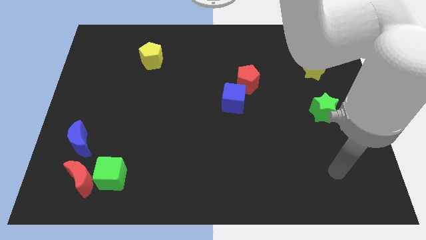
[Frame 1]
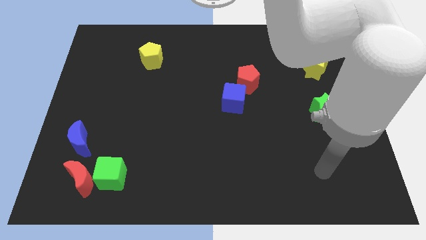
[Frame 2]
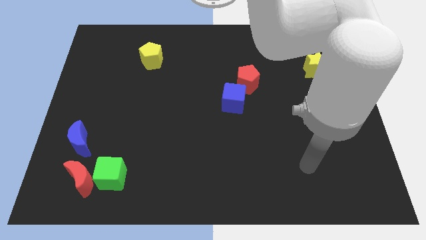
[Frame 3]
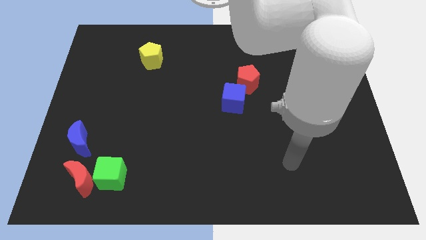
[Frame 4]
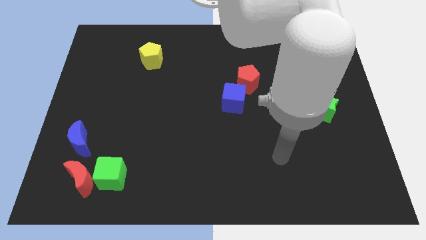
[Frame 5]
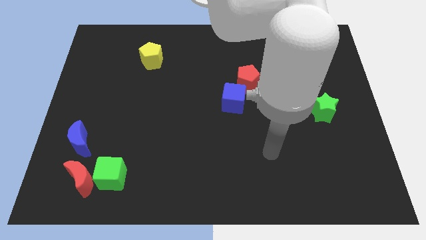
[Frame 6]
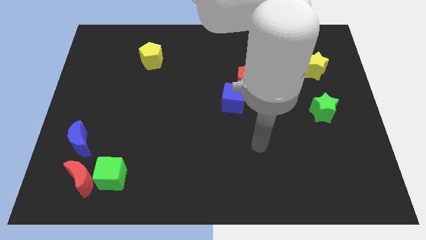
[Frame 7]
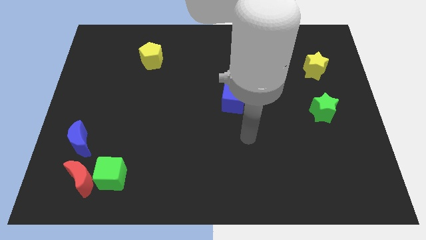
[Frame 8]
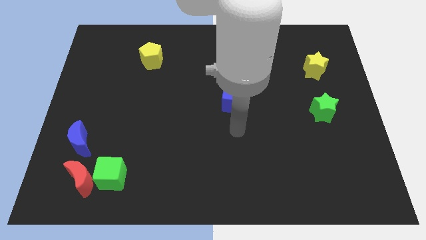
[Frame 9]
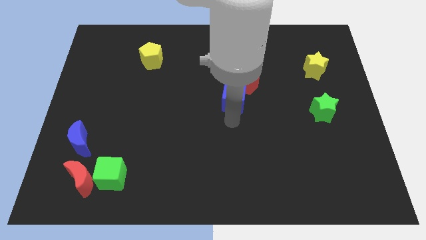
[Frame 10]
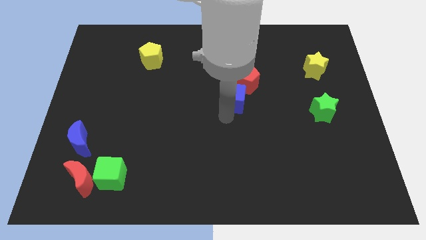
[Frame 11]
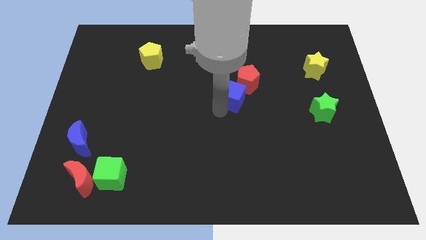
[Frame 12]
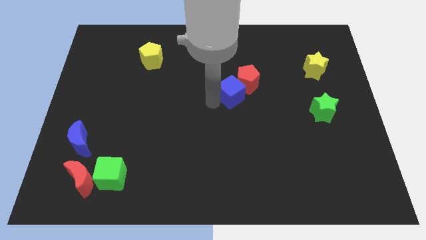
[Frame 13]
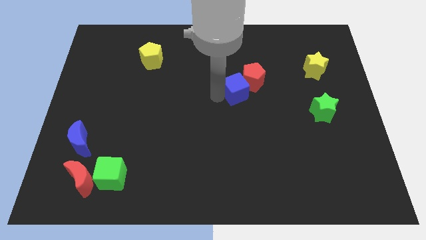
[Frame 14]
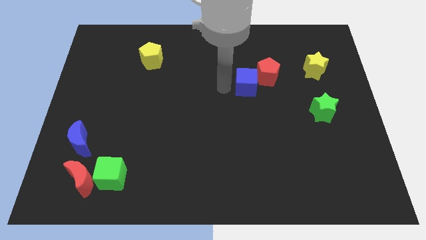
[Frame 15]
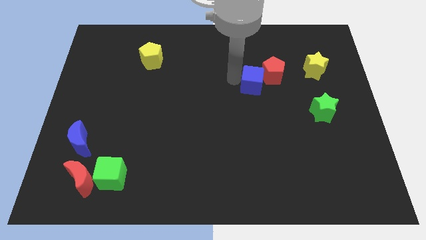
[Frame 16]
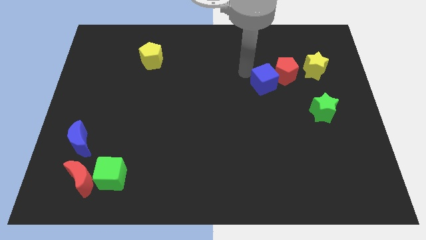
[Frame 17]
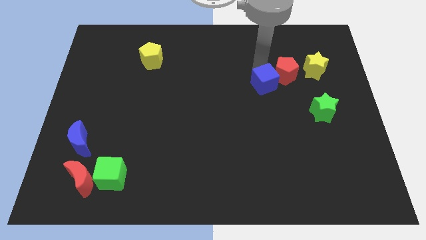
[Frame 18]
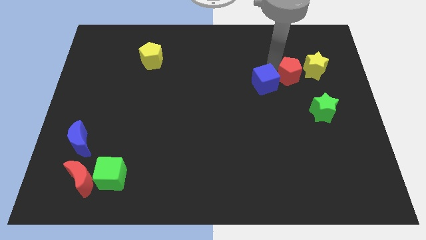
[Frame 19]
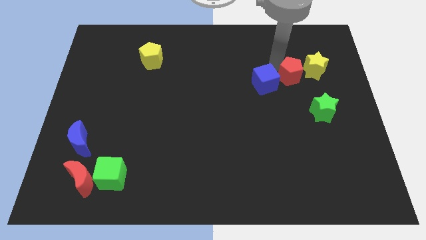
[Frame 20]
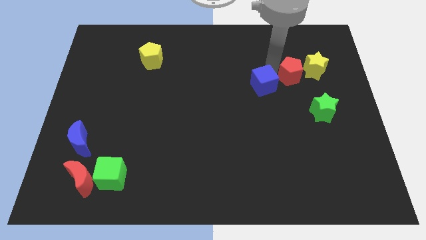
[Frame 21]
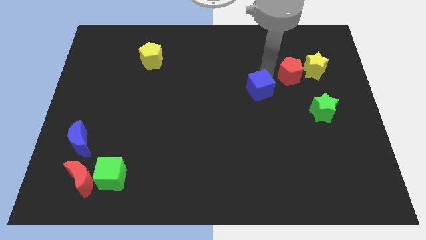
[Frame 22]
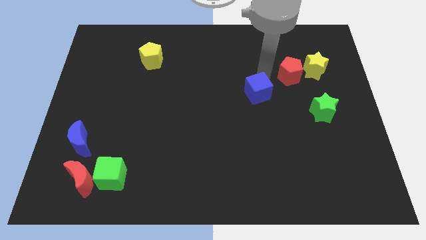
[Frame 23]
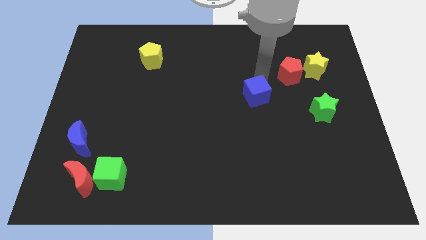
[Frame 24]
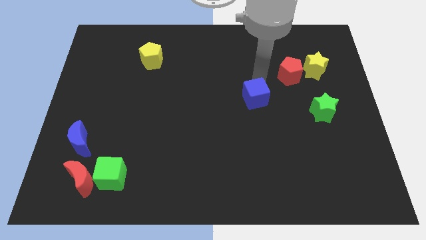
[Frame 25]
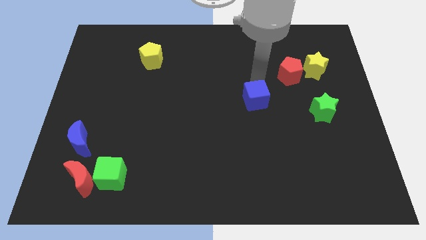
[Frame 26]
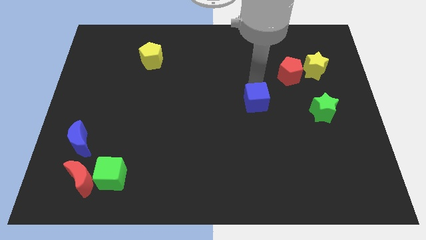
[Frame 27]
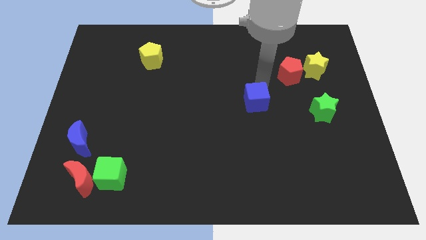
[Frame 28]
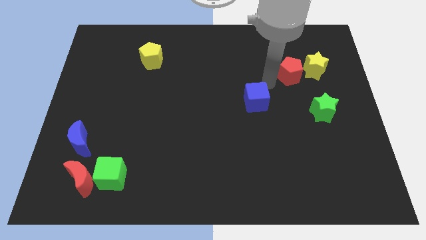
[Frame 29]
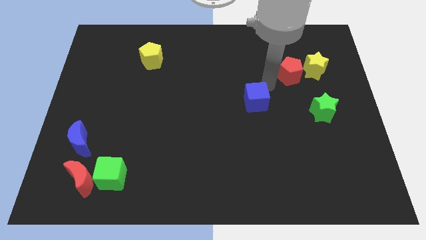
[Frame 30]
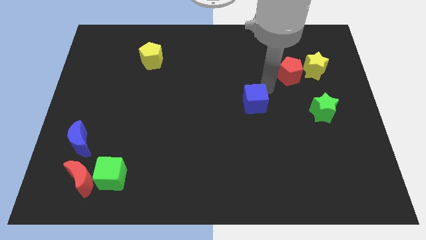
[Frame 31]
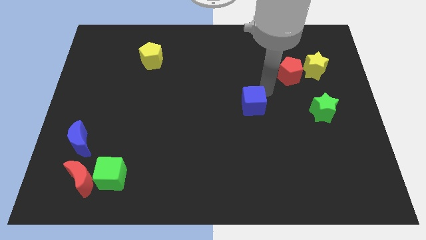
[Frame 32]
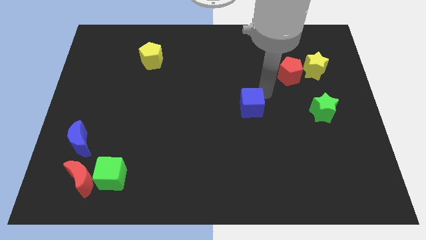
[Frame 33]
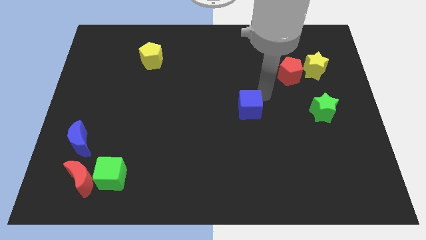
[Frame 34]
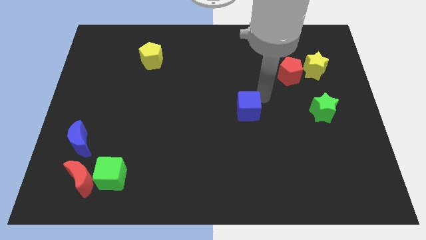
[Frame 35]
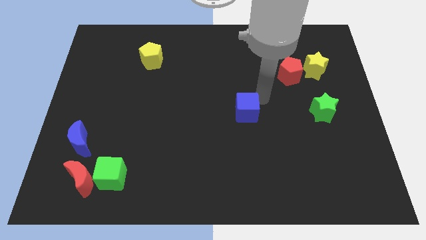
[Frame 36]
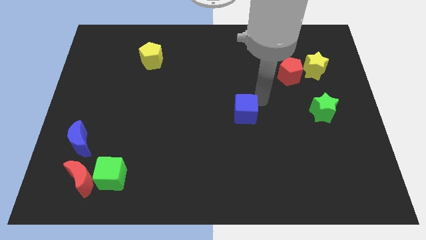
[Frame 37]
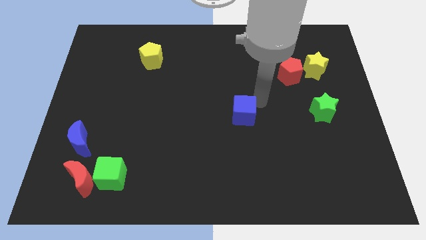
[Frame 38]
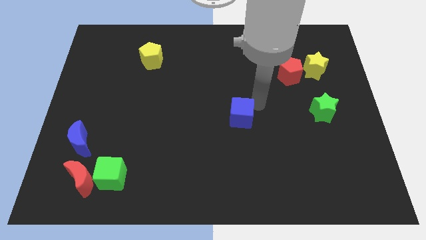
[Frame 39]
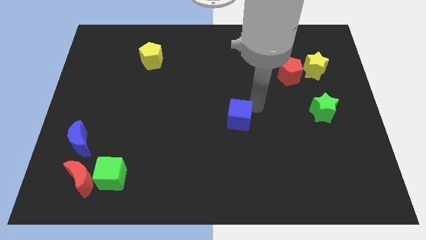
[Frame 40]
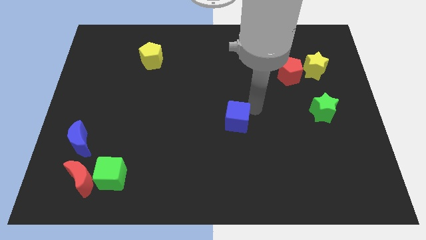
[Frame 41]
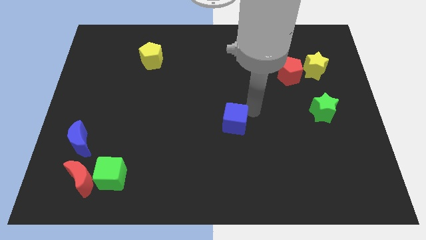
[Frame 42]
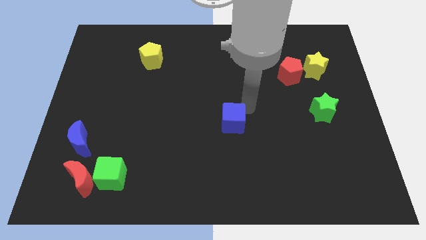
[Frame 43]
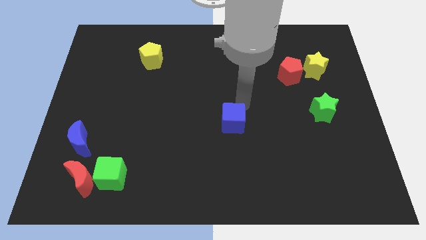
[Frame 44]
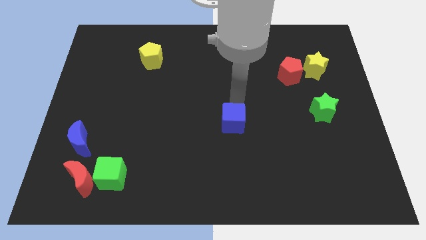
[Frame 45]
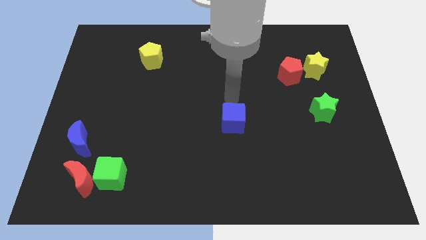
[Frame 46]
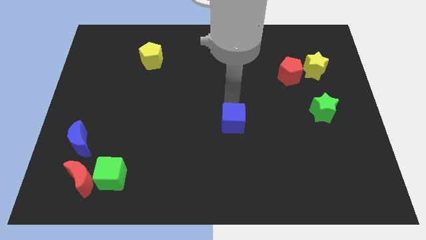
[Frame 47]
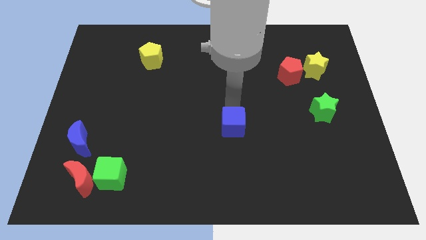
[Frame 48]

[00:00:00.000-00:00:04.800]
slightly slide the blue cube down

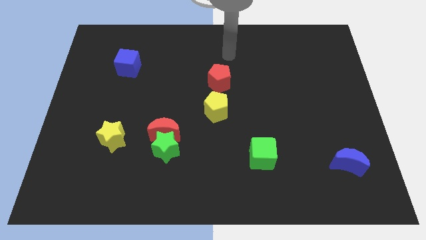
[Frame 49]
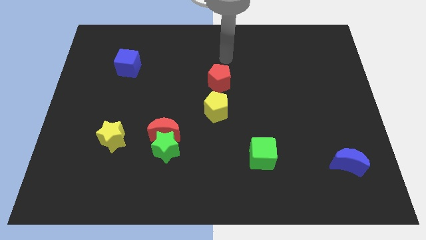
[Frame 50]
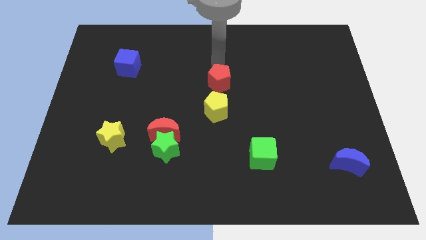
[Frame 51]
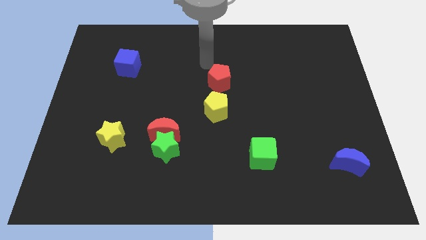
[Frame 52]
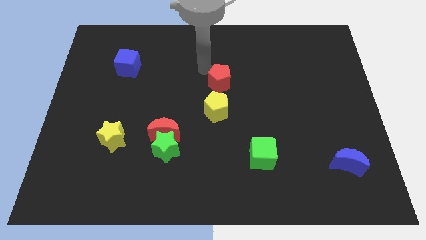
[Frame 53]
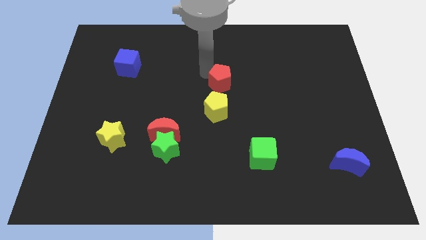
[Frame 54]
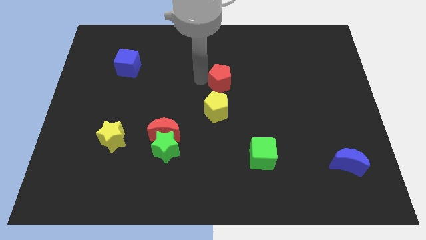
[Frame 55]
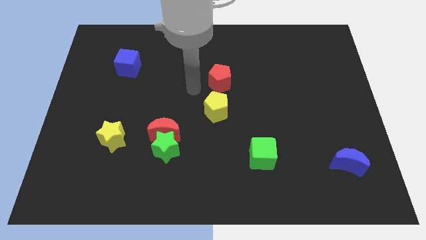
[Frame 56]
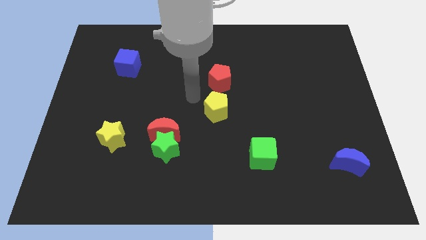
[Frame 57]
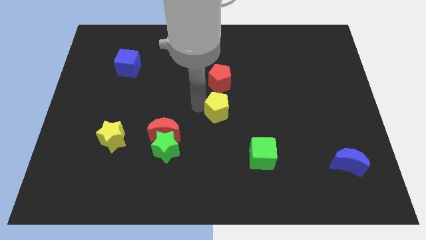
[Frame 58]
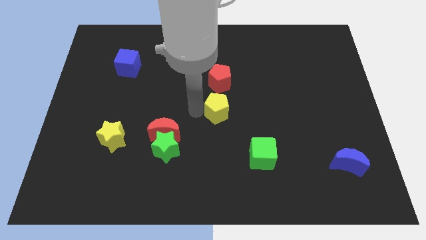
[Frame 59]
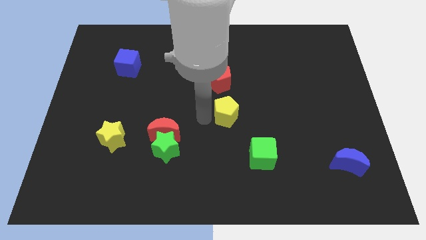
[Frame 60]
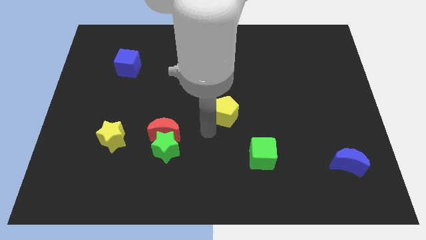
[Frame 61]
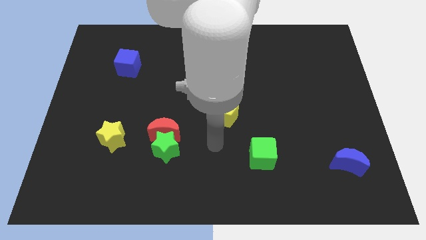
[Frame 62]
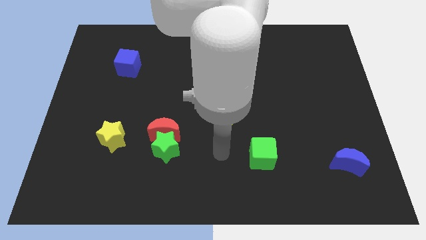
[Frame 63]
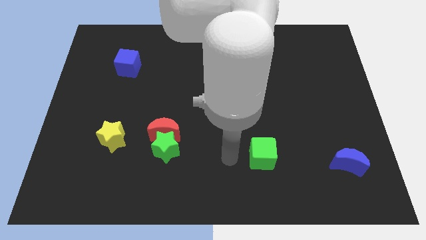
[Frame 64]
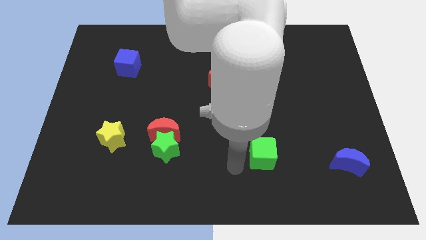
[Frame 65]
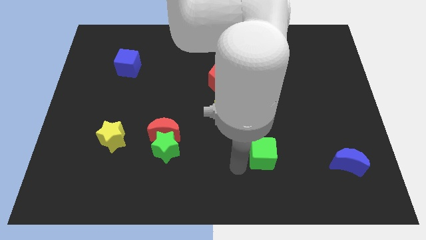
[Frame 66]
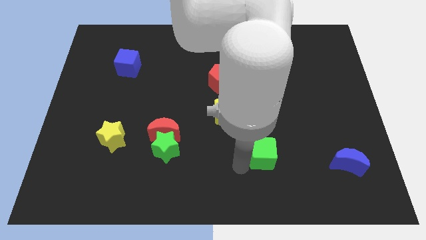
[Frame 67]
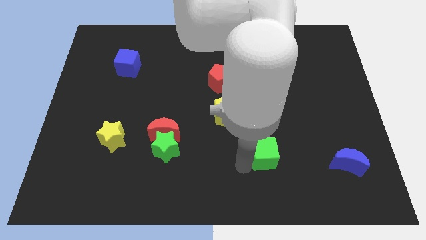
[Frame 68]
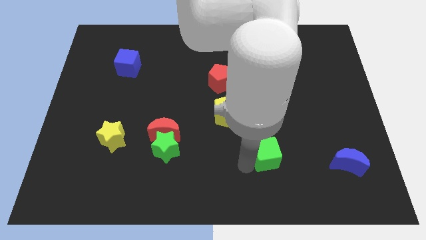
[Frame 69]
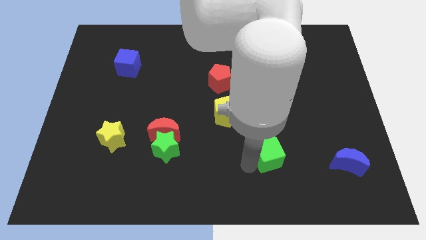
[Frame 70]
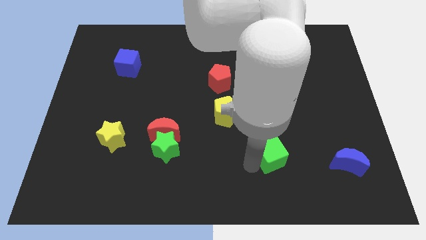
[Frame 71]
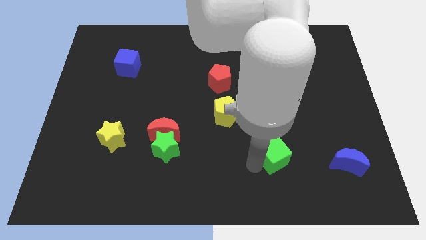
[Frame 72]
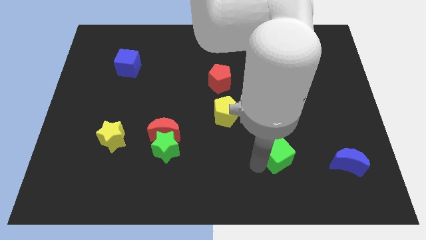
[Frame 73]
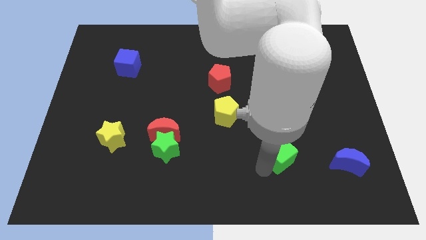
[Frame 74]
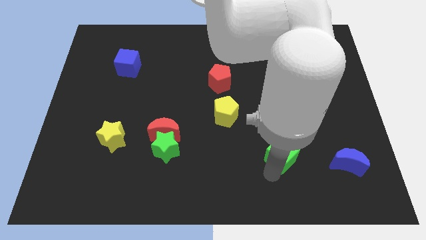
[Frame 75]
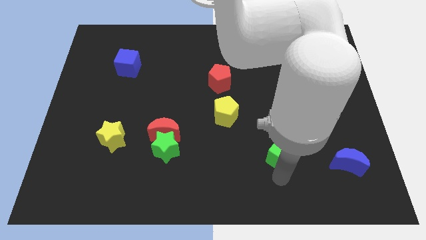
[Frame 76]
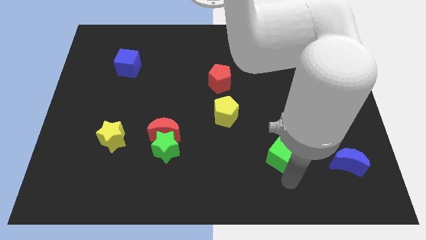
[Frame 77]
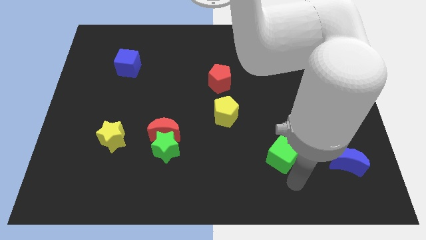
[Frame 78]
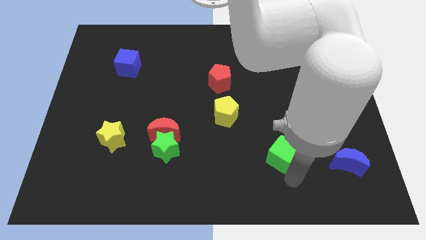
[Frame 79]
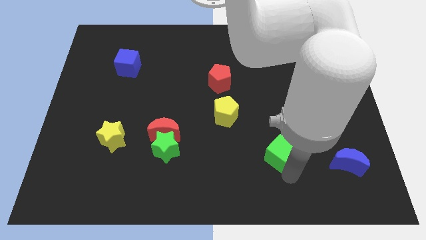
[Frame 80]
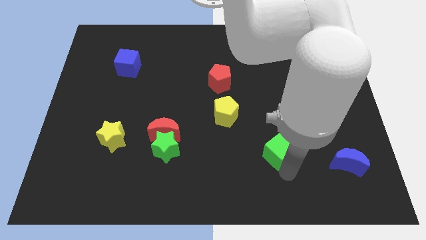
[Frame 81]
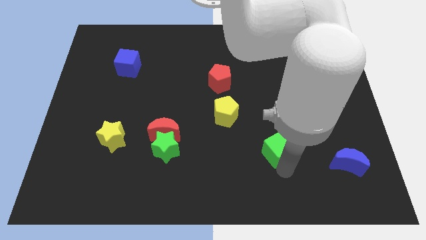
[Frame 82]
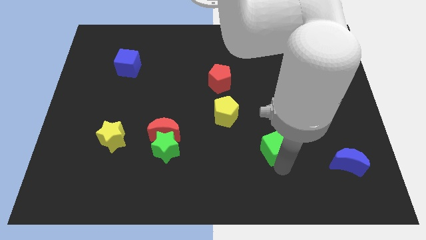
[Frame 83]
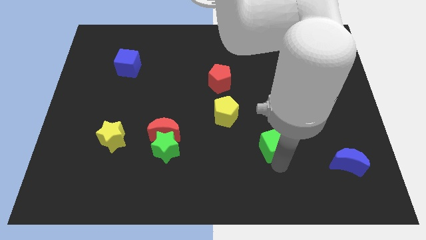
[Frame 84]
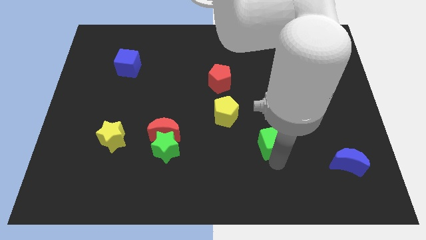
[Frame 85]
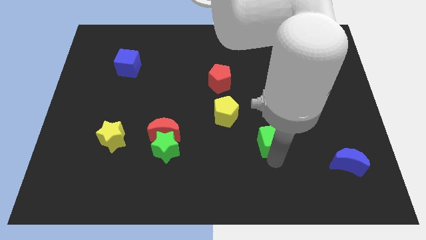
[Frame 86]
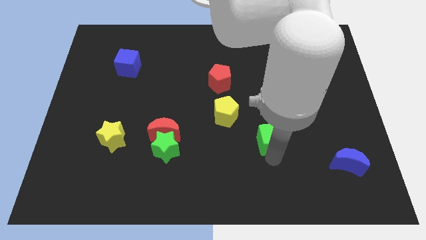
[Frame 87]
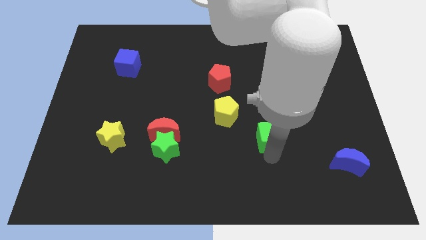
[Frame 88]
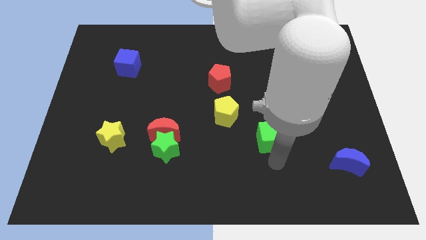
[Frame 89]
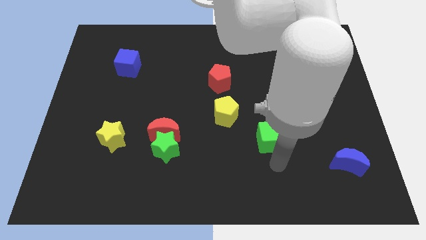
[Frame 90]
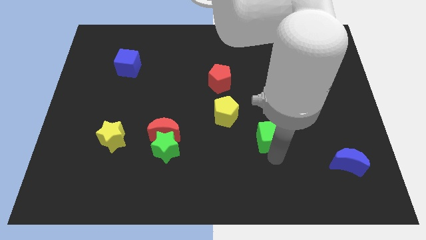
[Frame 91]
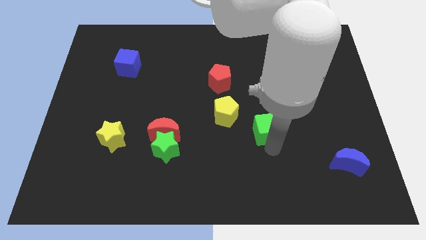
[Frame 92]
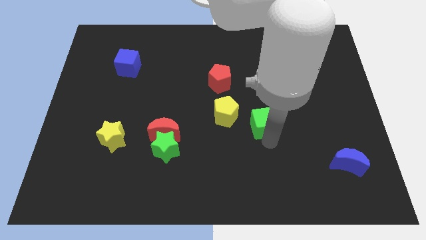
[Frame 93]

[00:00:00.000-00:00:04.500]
move the green cube up slightly
